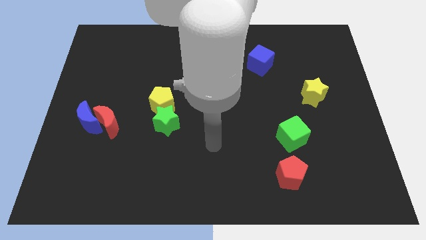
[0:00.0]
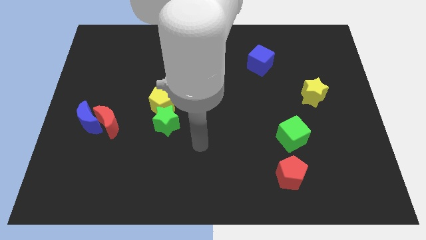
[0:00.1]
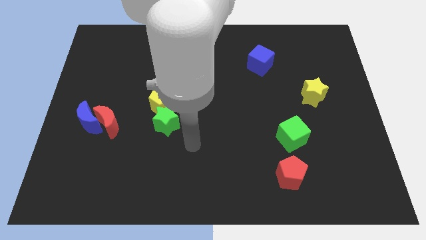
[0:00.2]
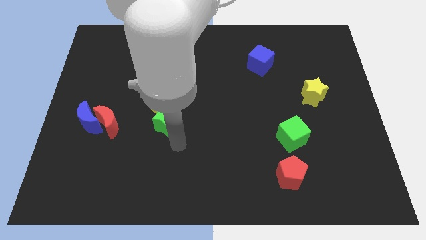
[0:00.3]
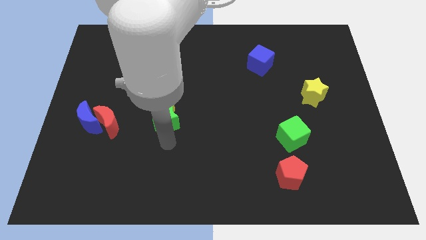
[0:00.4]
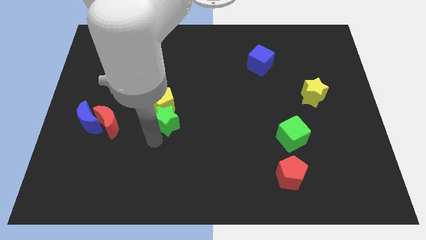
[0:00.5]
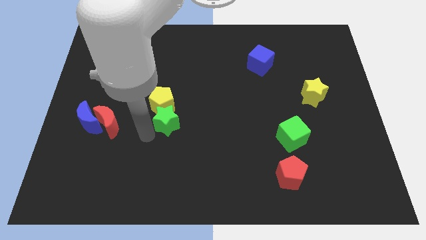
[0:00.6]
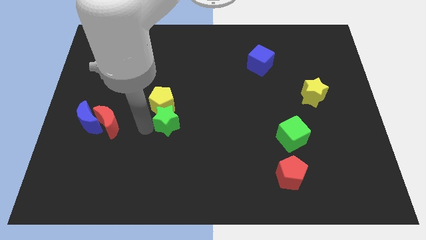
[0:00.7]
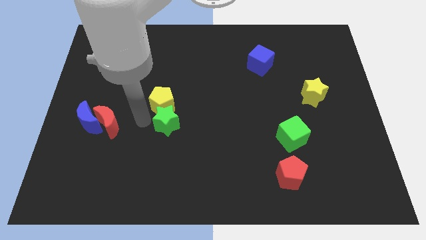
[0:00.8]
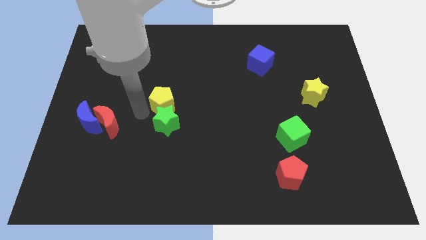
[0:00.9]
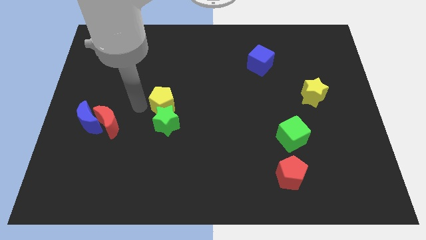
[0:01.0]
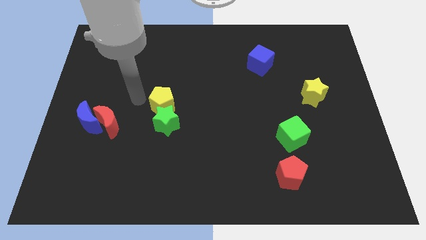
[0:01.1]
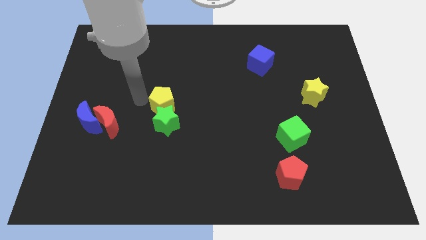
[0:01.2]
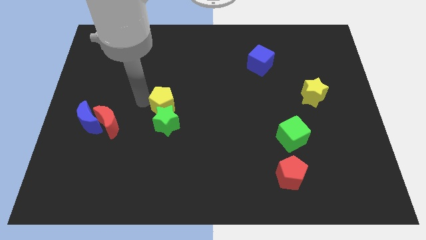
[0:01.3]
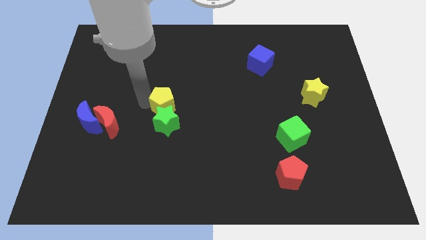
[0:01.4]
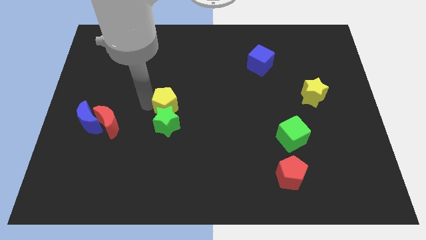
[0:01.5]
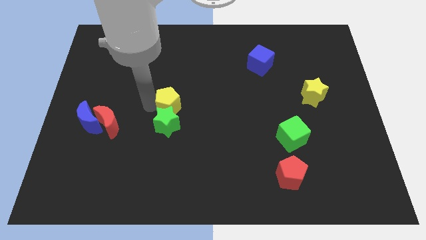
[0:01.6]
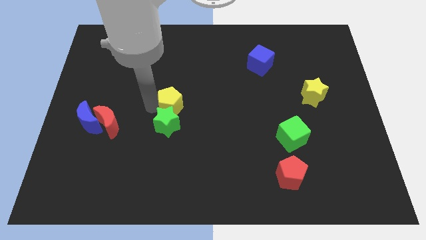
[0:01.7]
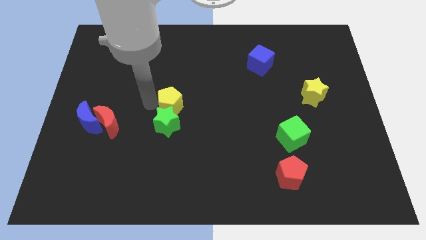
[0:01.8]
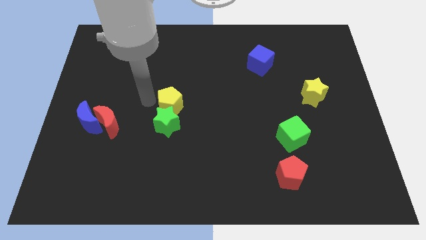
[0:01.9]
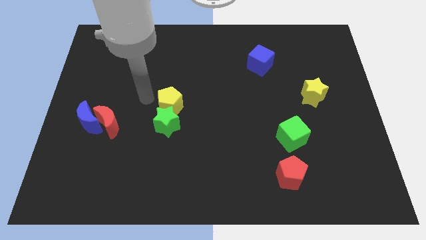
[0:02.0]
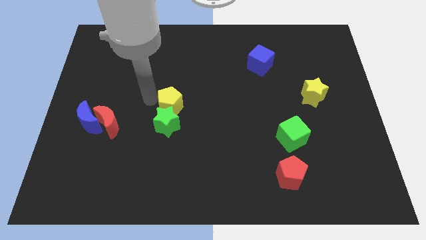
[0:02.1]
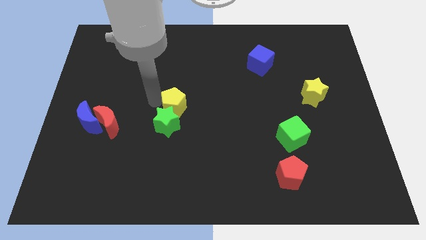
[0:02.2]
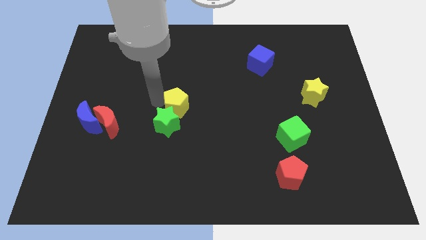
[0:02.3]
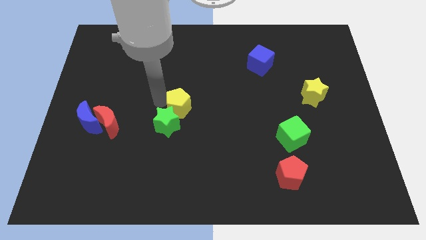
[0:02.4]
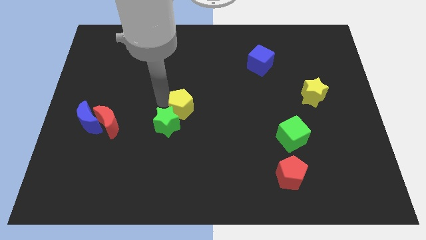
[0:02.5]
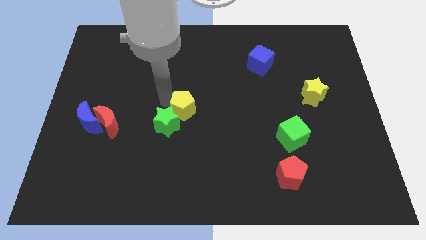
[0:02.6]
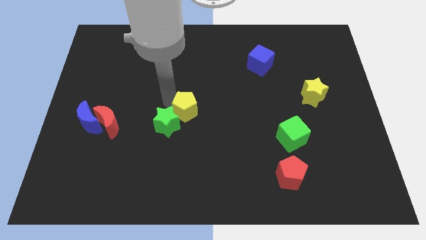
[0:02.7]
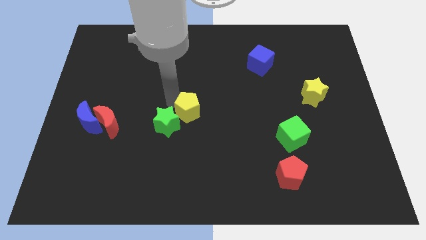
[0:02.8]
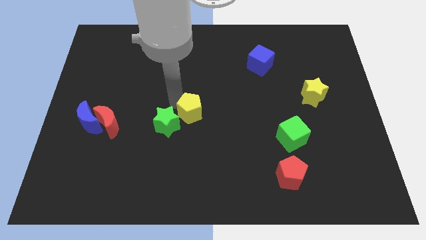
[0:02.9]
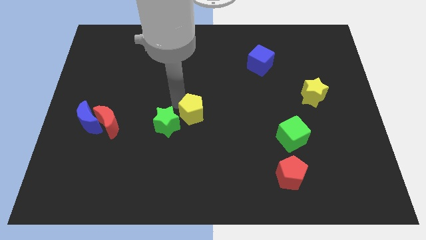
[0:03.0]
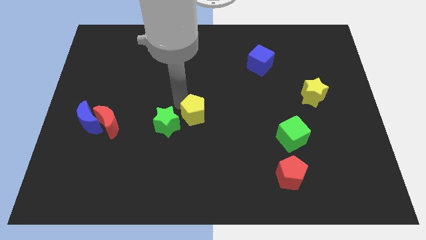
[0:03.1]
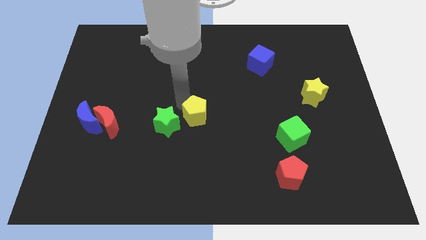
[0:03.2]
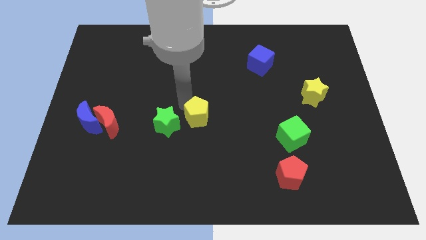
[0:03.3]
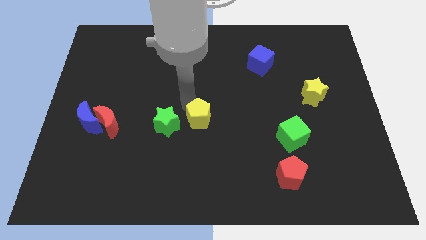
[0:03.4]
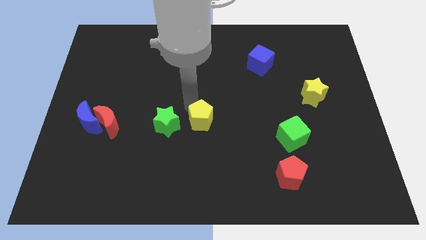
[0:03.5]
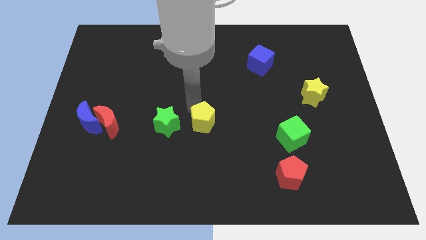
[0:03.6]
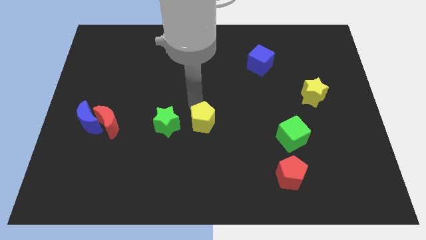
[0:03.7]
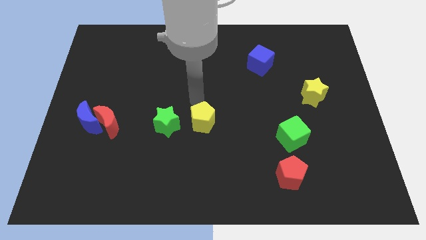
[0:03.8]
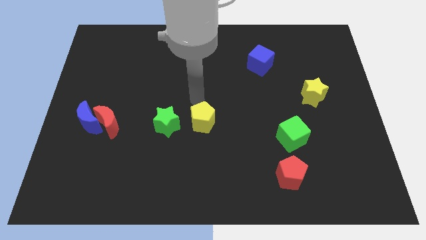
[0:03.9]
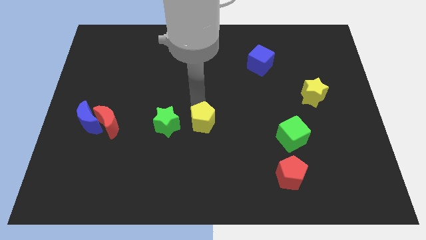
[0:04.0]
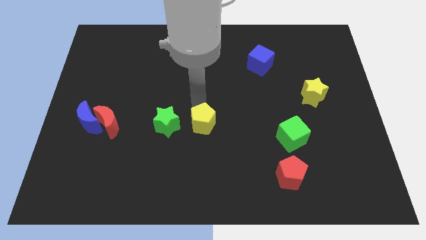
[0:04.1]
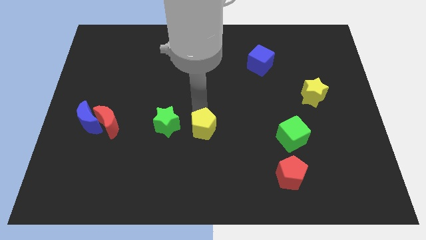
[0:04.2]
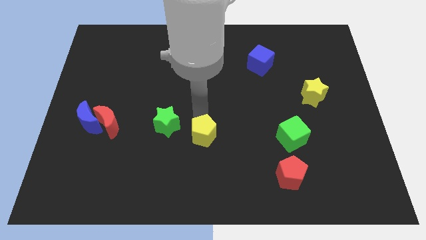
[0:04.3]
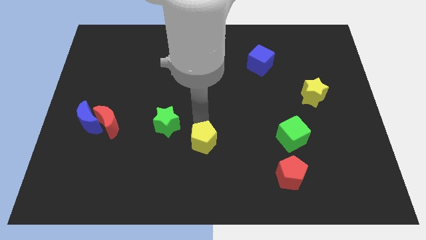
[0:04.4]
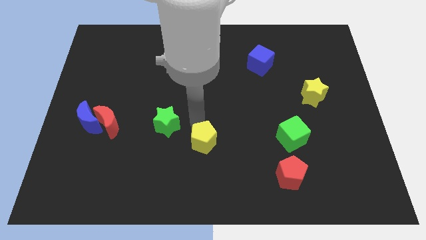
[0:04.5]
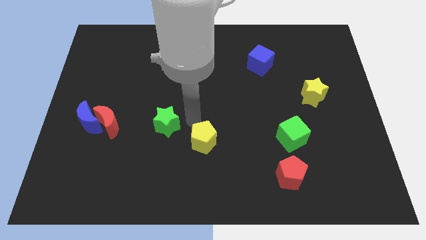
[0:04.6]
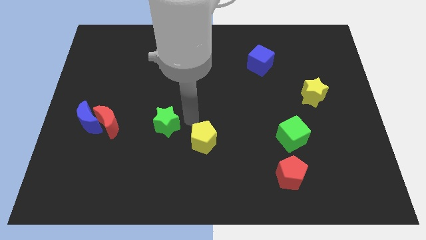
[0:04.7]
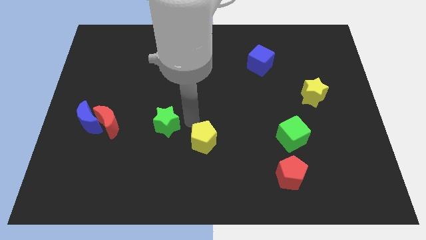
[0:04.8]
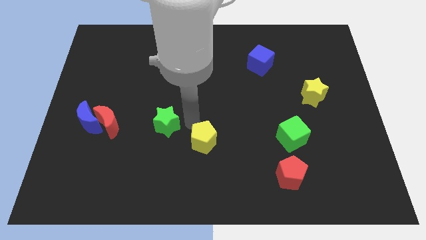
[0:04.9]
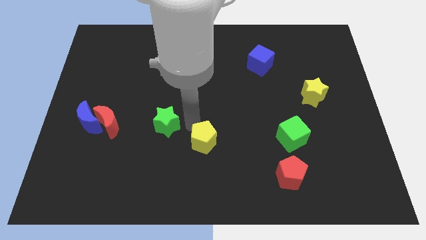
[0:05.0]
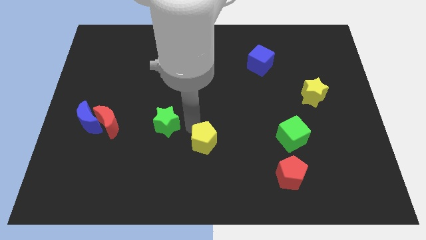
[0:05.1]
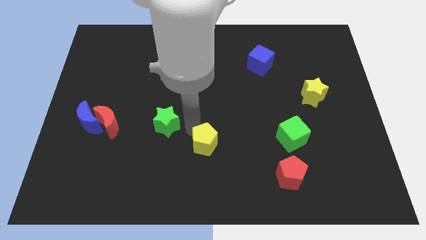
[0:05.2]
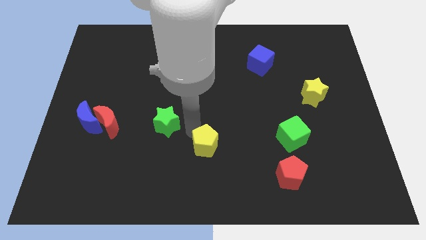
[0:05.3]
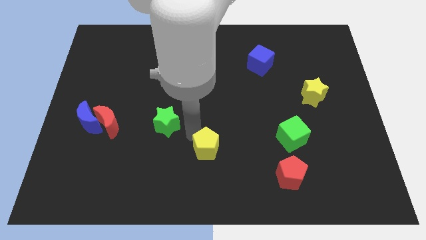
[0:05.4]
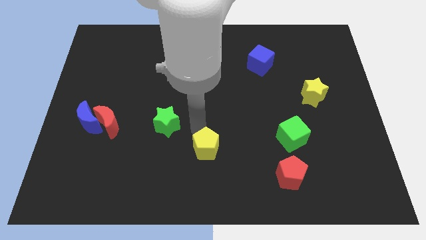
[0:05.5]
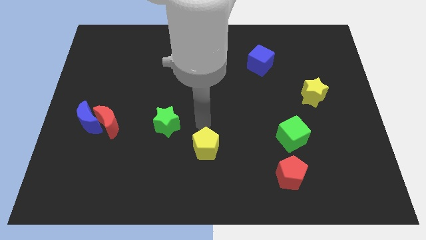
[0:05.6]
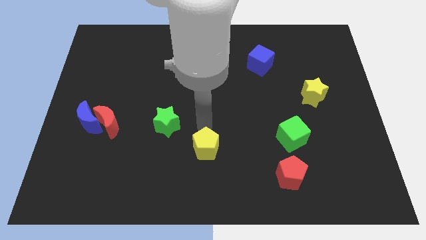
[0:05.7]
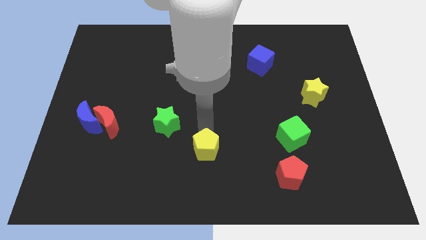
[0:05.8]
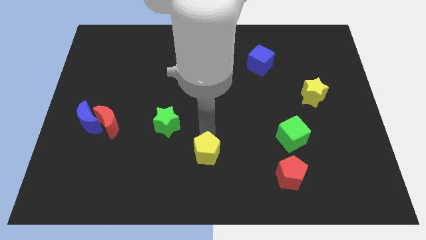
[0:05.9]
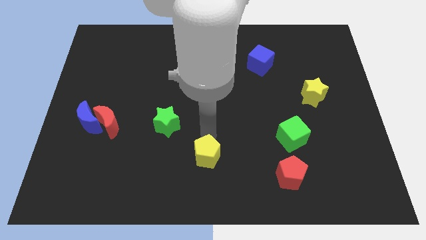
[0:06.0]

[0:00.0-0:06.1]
slide the yellow pentagon to the bottom
